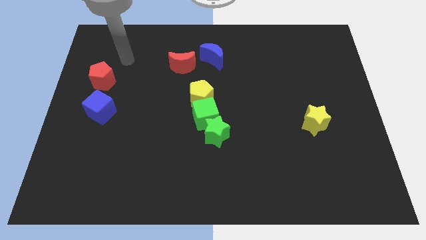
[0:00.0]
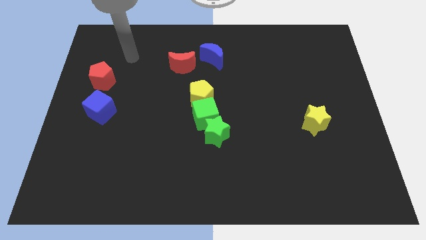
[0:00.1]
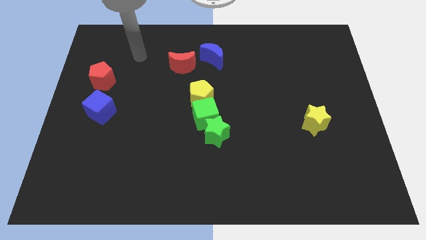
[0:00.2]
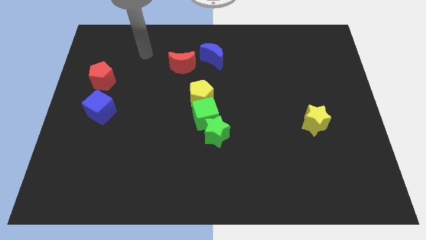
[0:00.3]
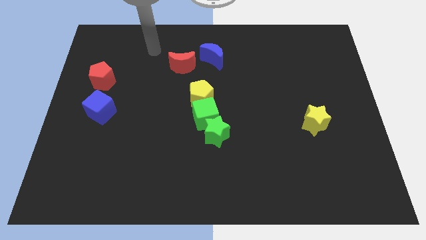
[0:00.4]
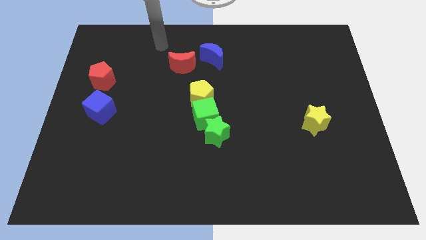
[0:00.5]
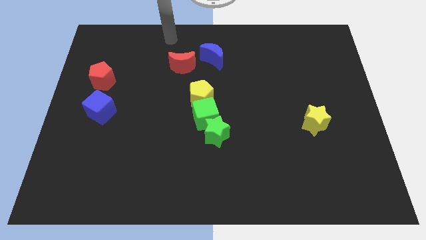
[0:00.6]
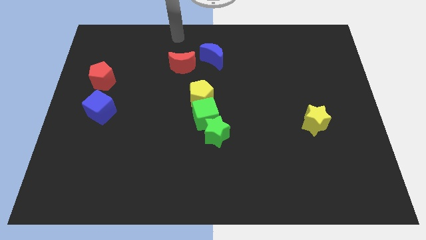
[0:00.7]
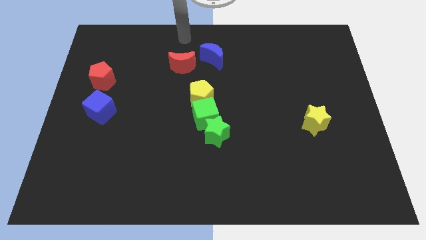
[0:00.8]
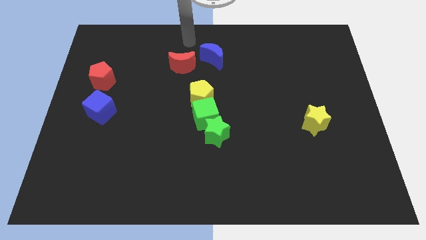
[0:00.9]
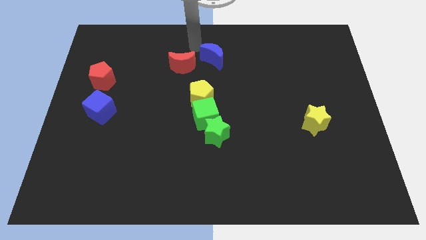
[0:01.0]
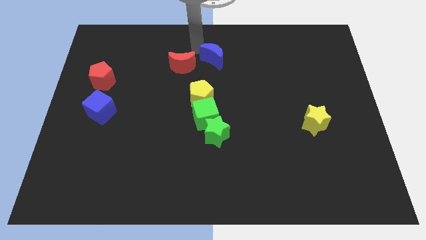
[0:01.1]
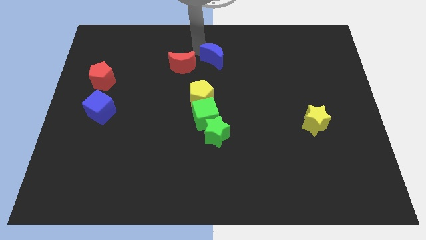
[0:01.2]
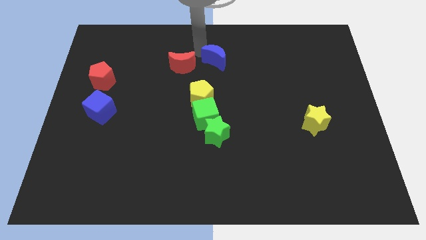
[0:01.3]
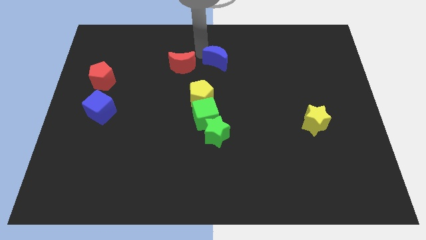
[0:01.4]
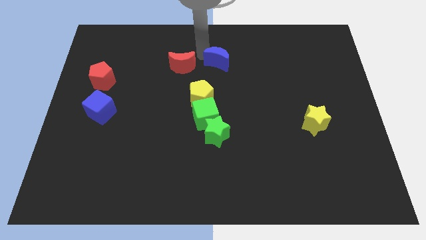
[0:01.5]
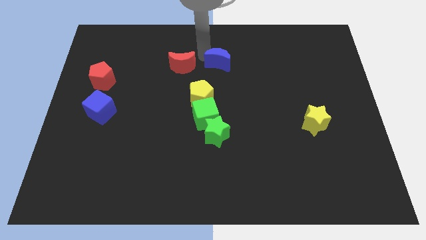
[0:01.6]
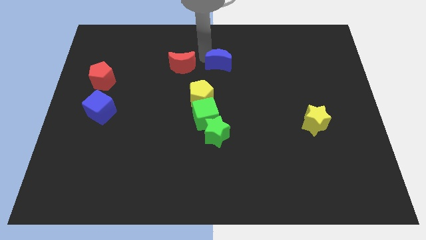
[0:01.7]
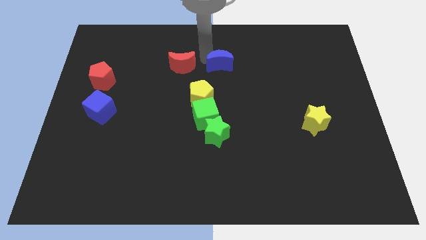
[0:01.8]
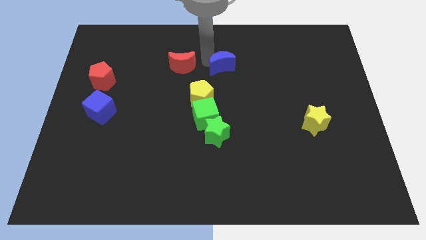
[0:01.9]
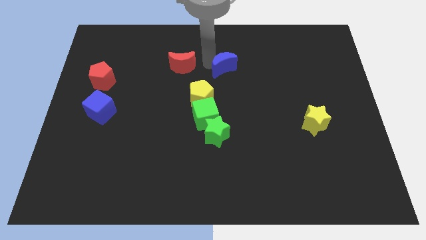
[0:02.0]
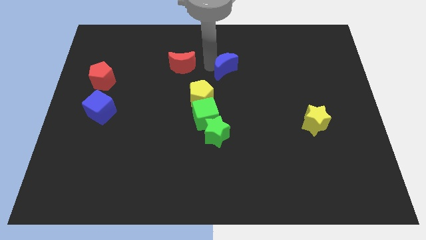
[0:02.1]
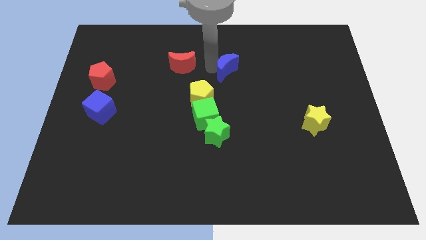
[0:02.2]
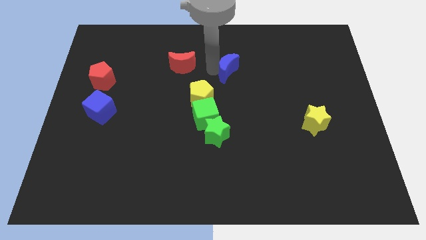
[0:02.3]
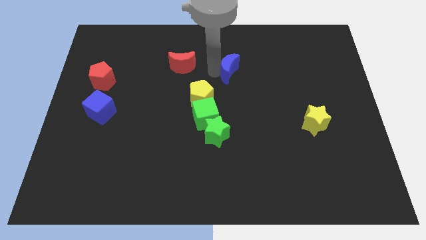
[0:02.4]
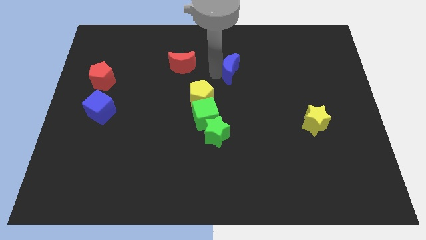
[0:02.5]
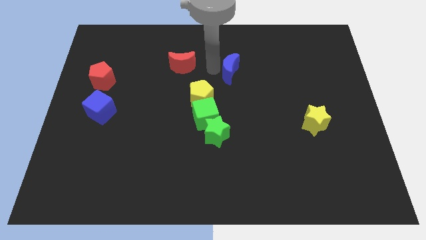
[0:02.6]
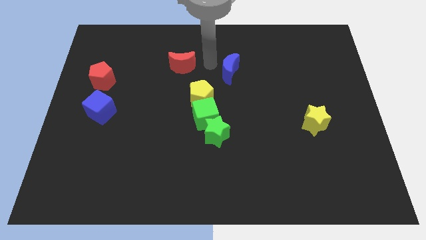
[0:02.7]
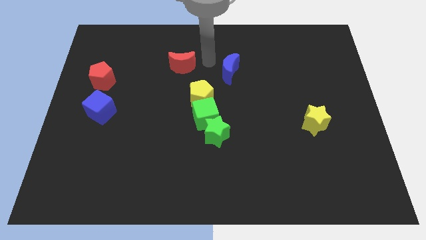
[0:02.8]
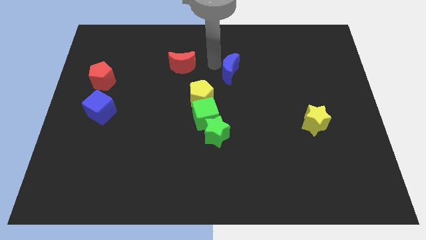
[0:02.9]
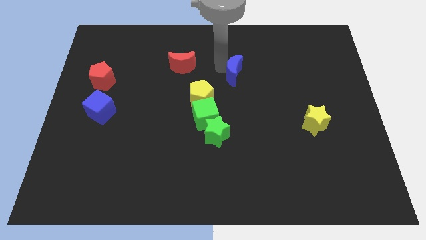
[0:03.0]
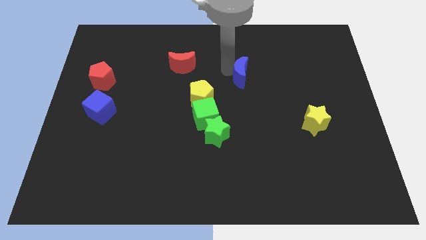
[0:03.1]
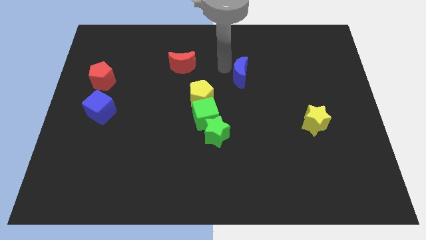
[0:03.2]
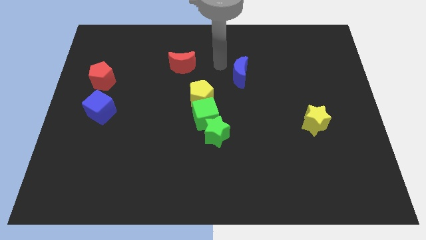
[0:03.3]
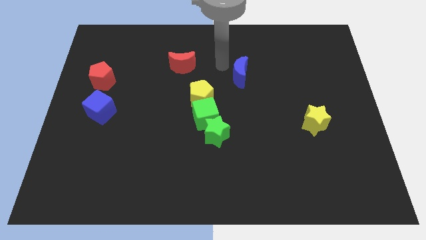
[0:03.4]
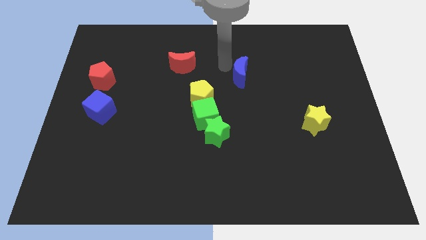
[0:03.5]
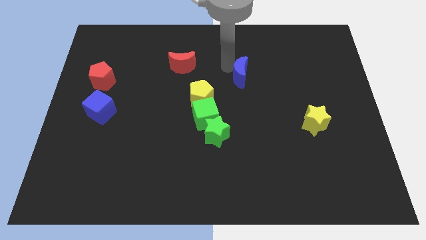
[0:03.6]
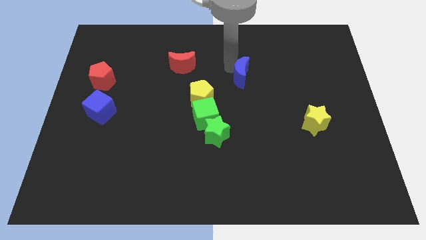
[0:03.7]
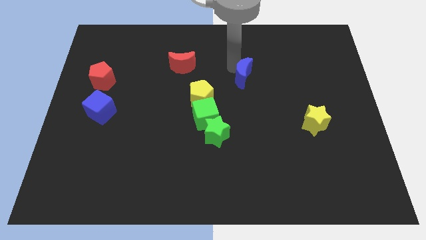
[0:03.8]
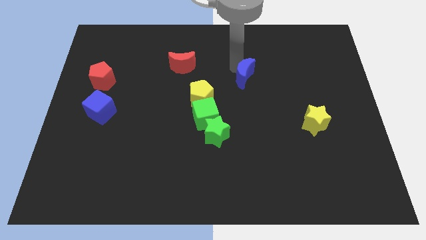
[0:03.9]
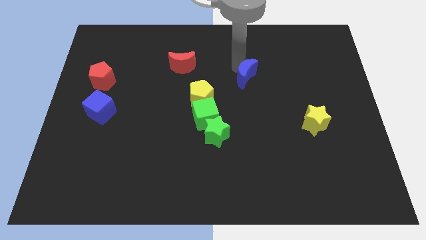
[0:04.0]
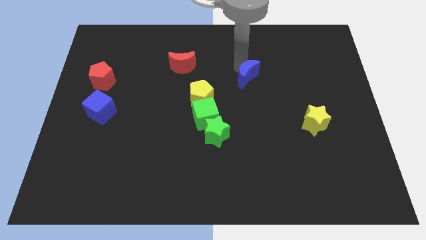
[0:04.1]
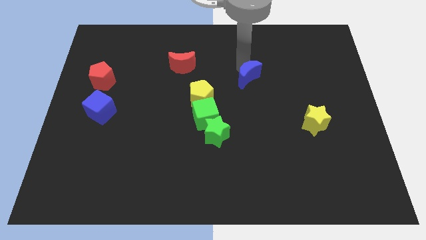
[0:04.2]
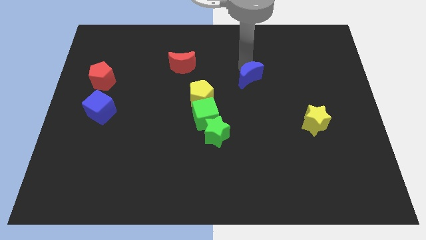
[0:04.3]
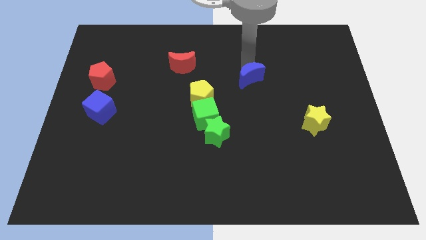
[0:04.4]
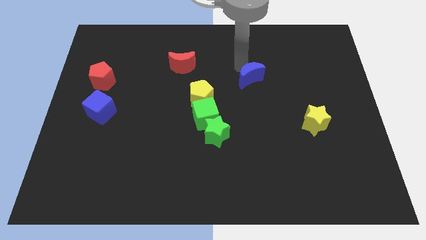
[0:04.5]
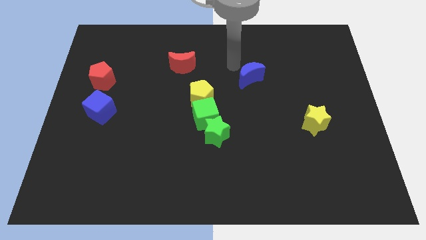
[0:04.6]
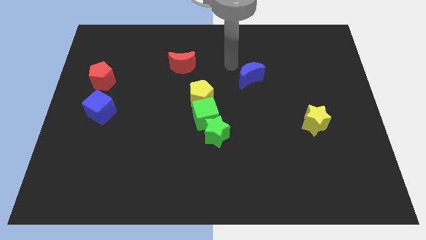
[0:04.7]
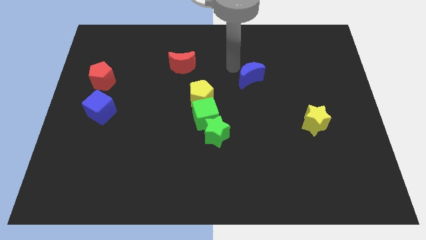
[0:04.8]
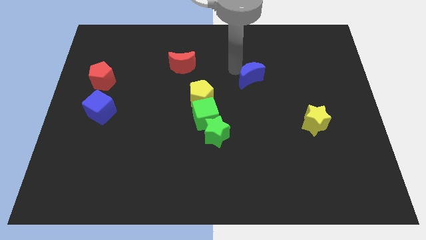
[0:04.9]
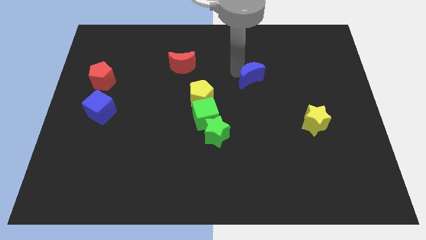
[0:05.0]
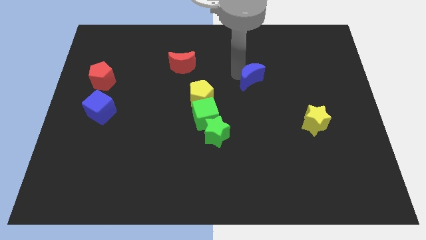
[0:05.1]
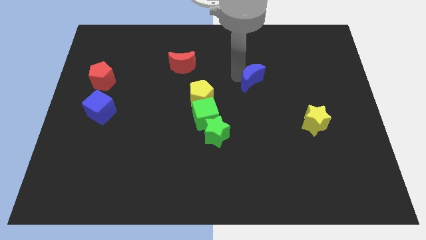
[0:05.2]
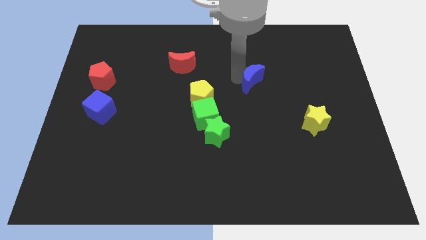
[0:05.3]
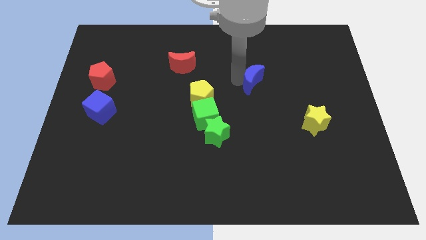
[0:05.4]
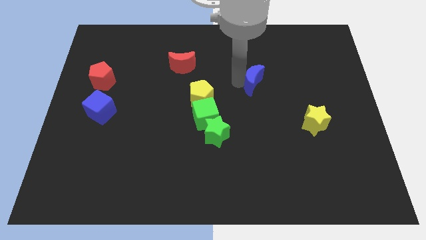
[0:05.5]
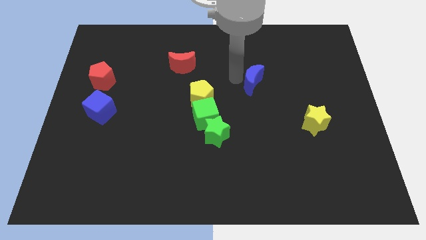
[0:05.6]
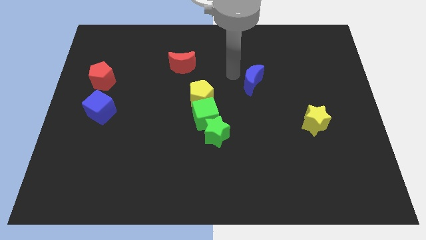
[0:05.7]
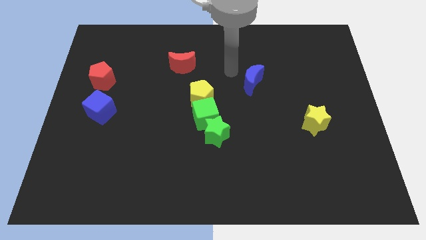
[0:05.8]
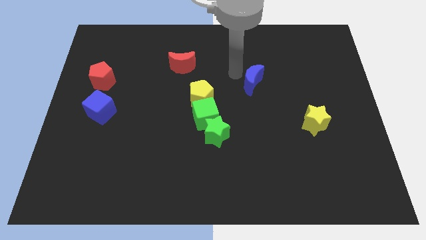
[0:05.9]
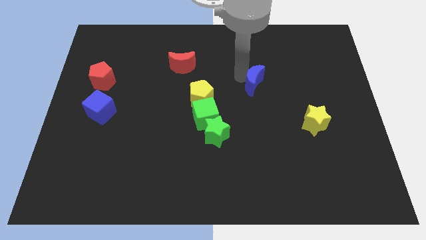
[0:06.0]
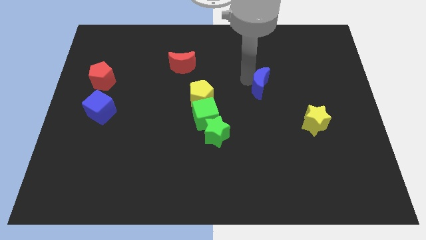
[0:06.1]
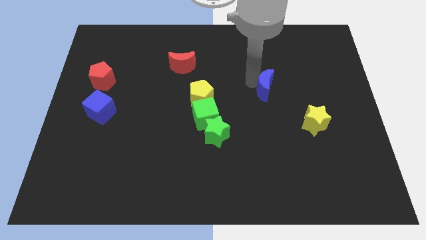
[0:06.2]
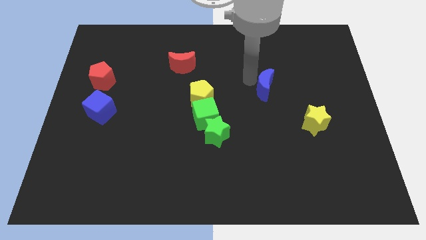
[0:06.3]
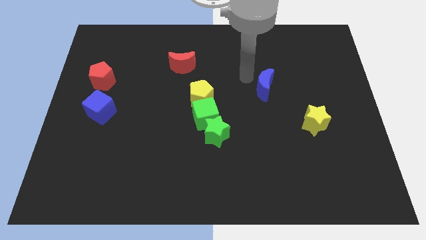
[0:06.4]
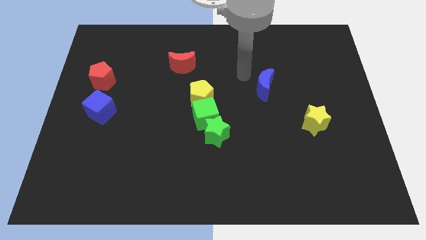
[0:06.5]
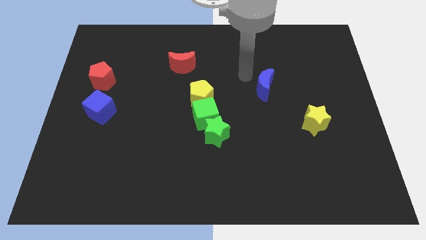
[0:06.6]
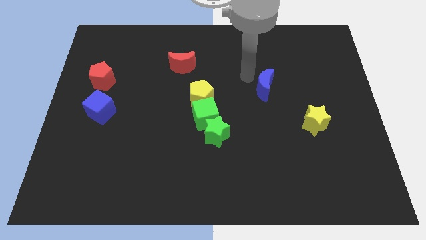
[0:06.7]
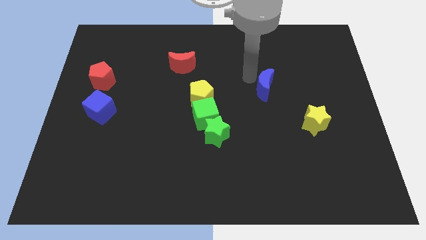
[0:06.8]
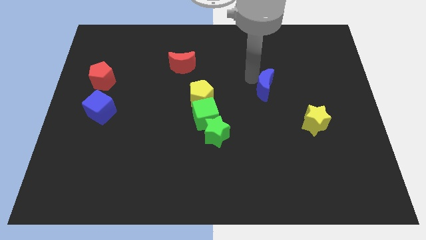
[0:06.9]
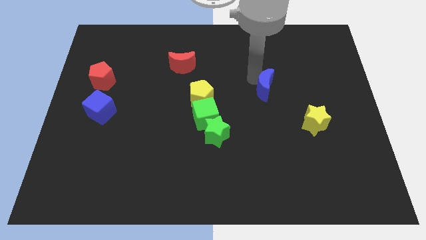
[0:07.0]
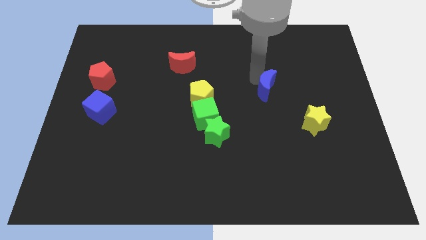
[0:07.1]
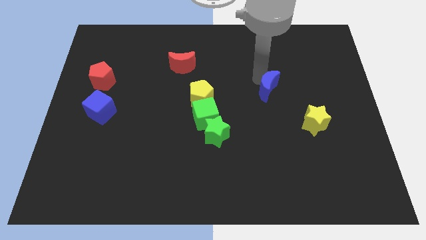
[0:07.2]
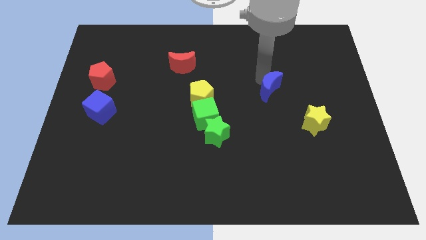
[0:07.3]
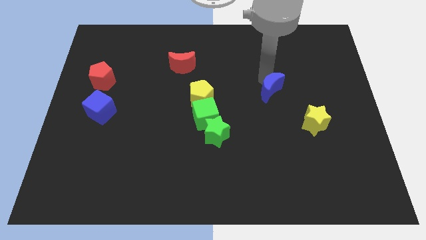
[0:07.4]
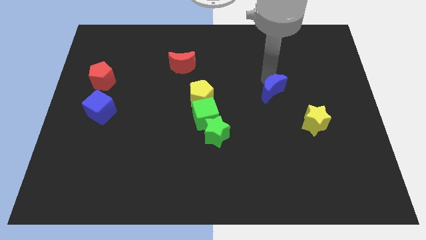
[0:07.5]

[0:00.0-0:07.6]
move the blue moon to the top left of the yellow star
